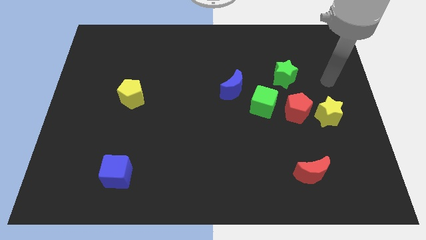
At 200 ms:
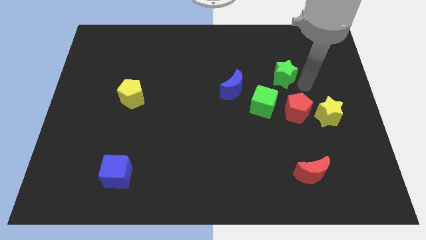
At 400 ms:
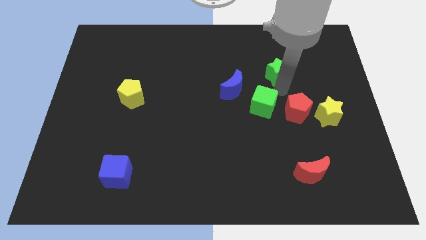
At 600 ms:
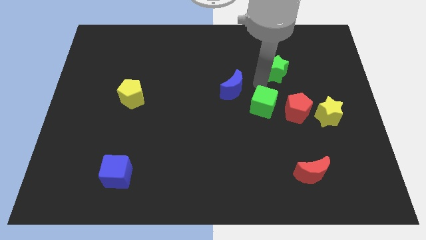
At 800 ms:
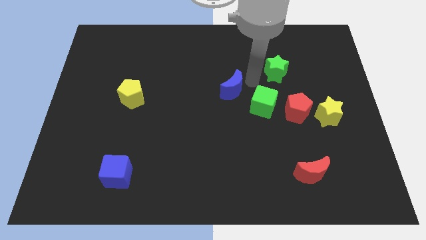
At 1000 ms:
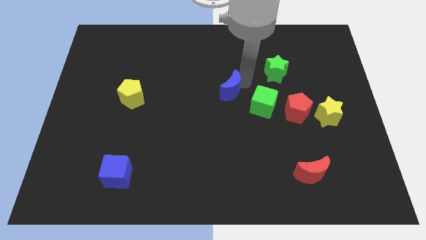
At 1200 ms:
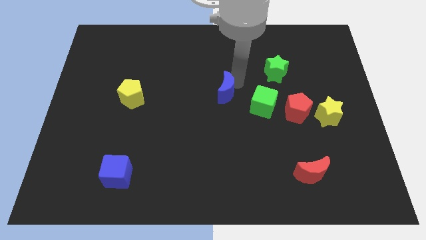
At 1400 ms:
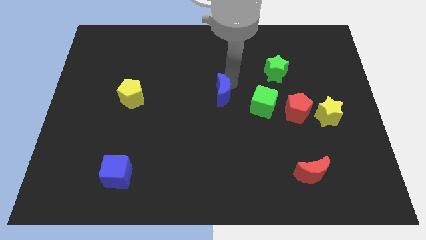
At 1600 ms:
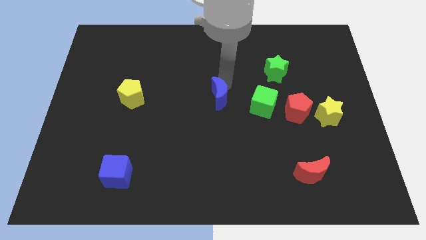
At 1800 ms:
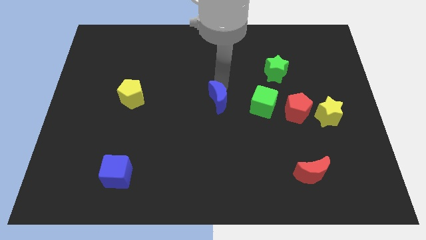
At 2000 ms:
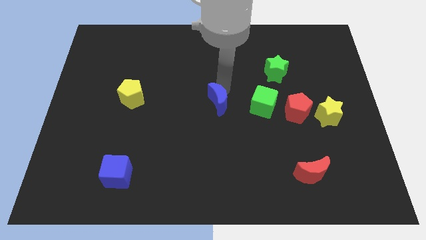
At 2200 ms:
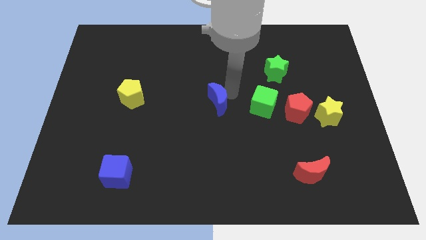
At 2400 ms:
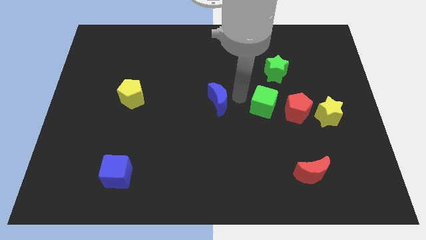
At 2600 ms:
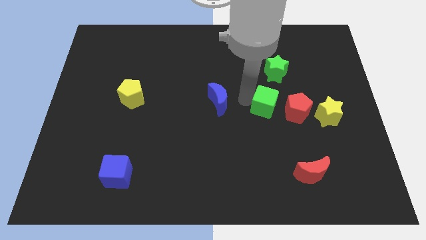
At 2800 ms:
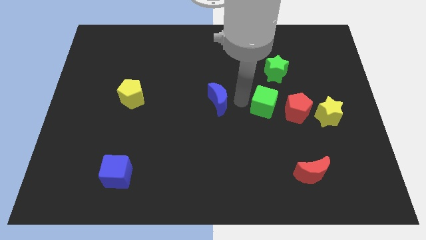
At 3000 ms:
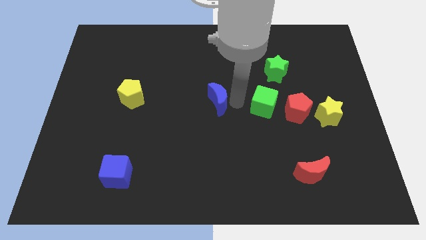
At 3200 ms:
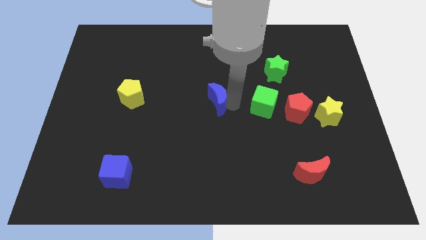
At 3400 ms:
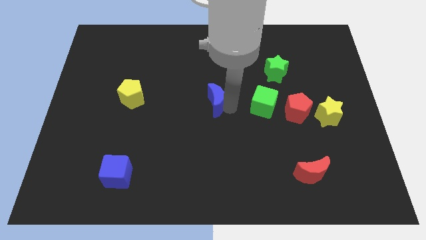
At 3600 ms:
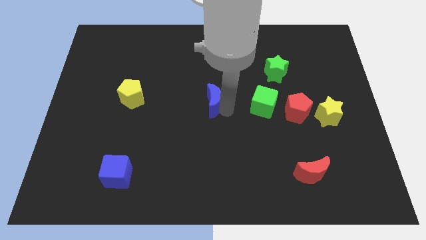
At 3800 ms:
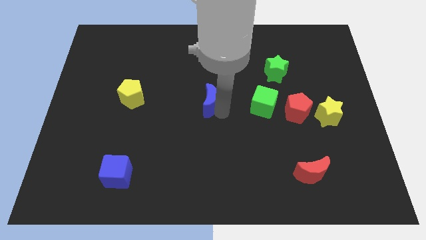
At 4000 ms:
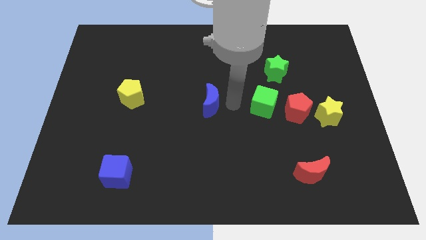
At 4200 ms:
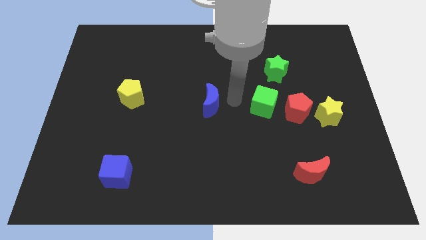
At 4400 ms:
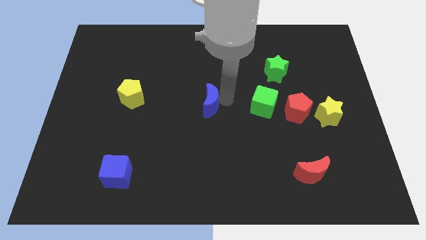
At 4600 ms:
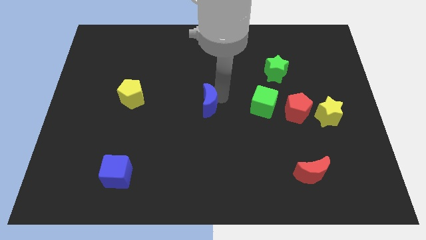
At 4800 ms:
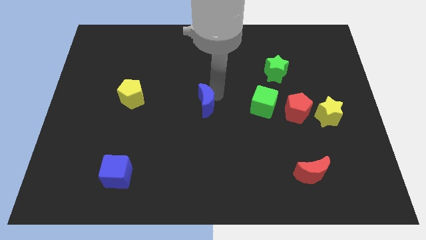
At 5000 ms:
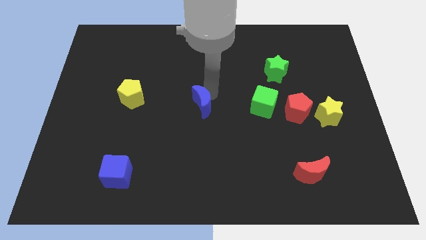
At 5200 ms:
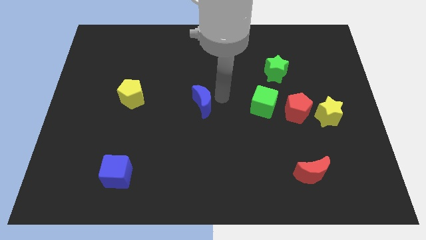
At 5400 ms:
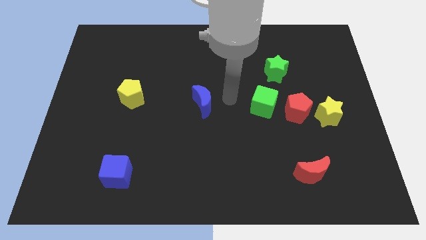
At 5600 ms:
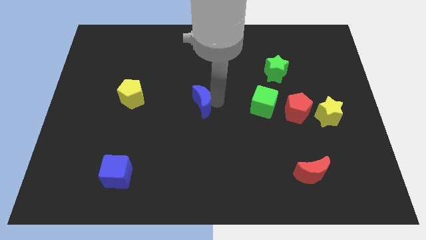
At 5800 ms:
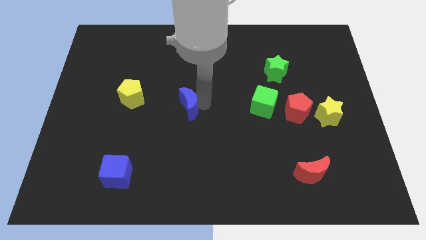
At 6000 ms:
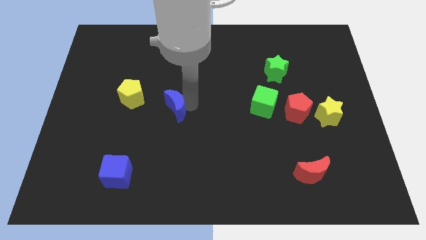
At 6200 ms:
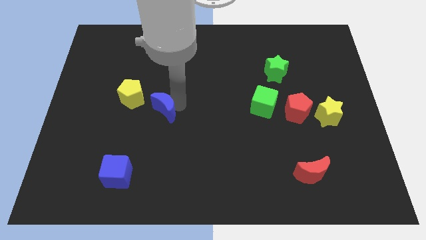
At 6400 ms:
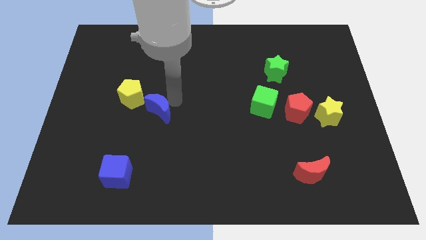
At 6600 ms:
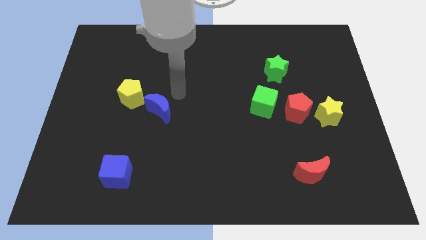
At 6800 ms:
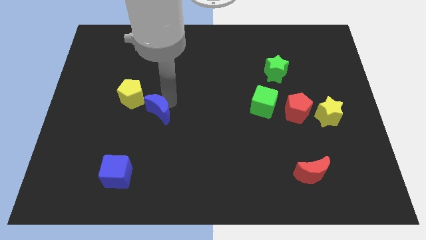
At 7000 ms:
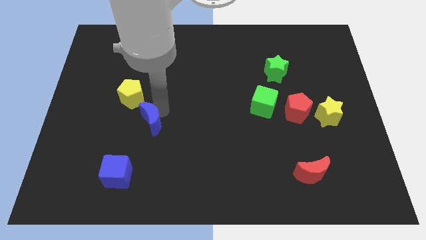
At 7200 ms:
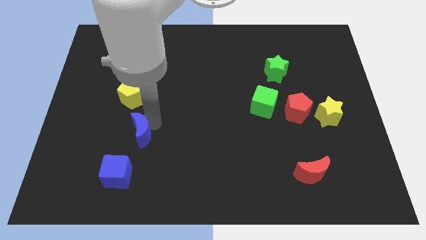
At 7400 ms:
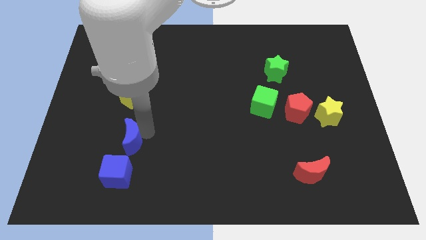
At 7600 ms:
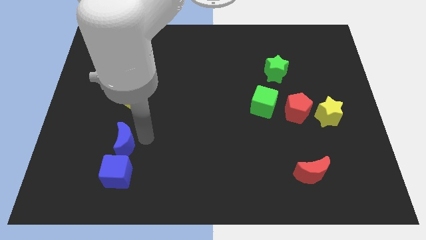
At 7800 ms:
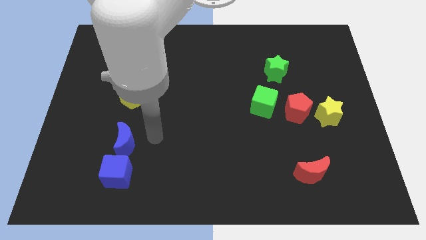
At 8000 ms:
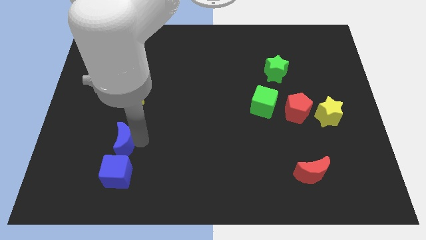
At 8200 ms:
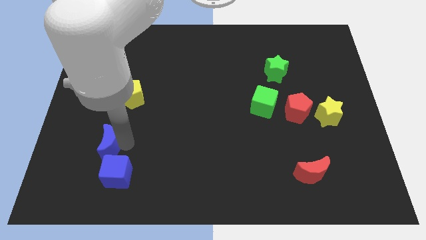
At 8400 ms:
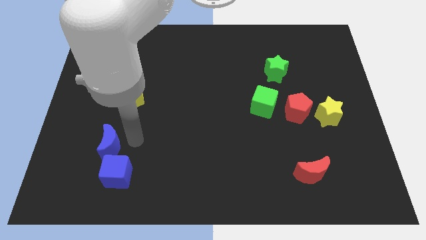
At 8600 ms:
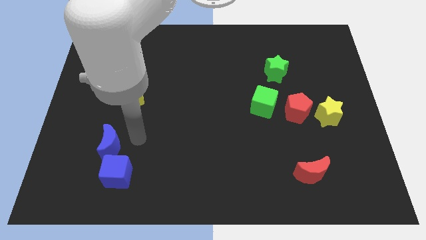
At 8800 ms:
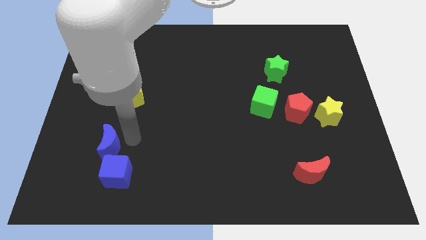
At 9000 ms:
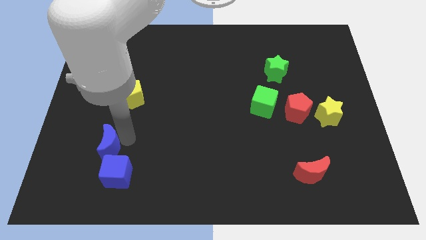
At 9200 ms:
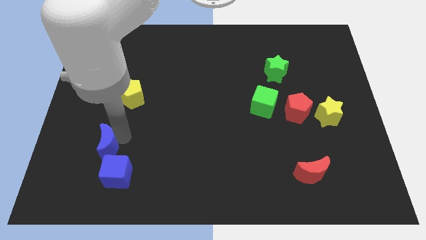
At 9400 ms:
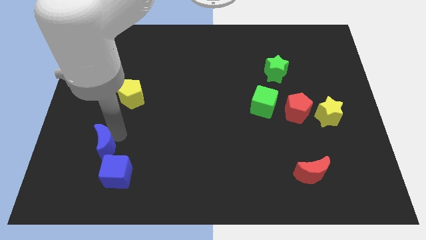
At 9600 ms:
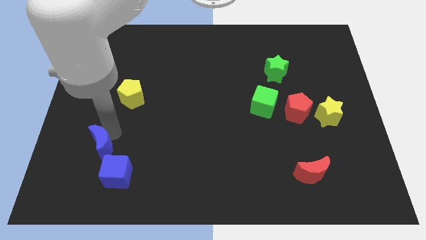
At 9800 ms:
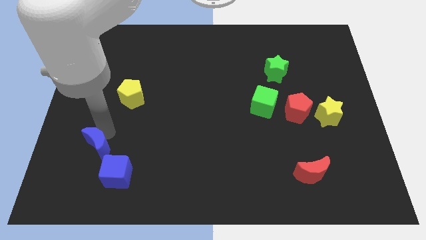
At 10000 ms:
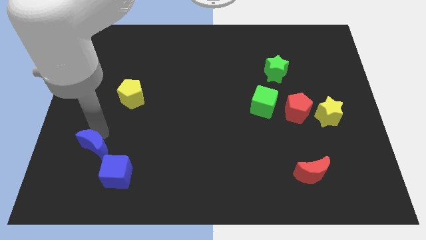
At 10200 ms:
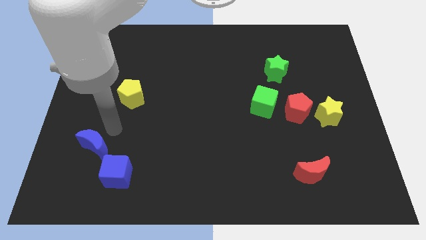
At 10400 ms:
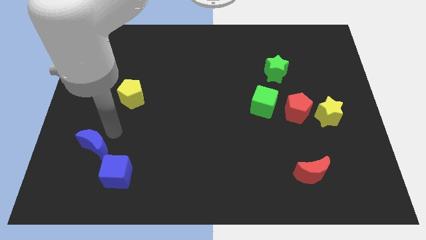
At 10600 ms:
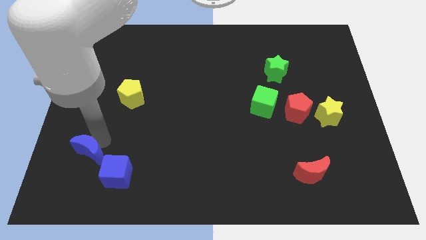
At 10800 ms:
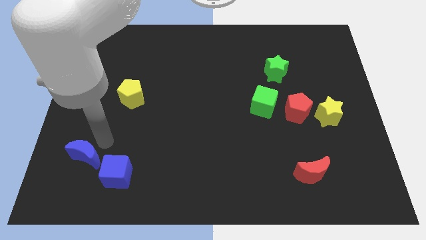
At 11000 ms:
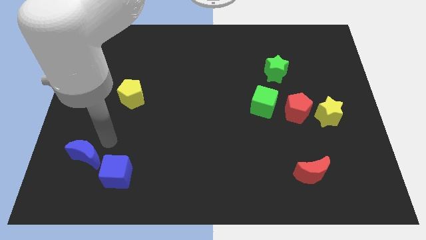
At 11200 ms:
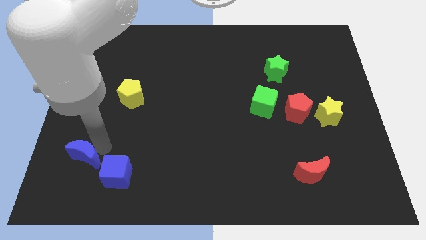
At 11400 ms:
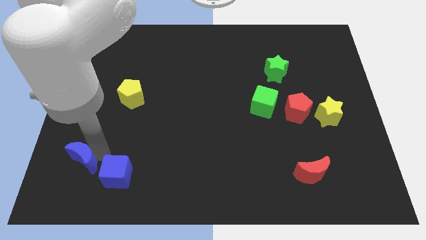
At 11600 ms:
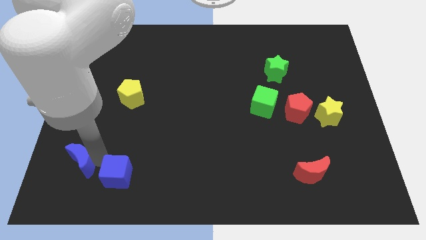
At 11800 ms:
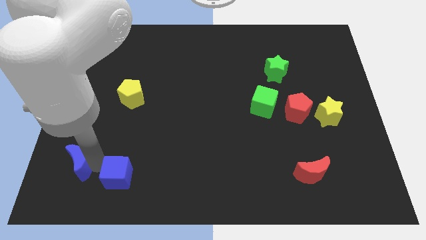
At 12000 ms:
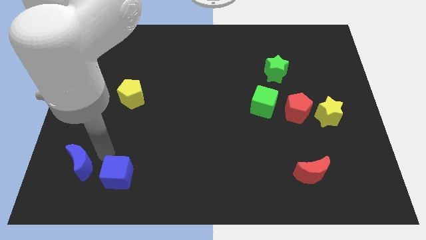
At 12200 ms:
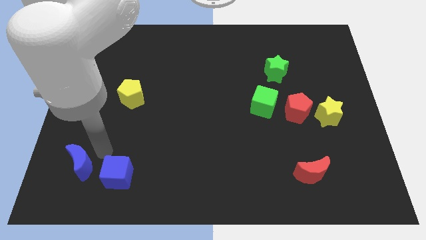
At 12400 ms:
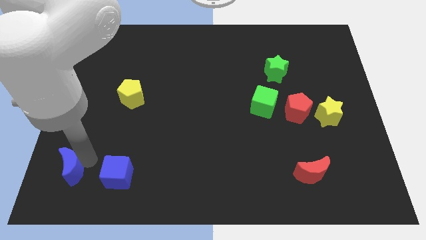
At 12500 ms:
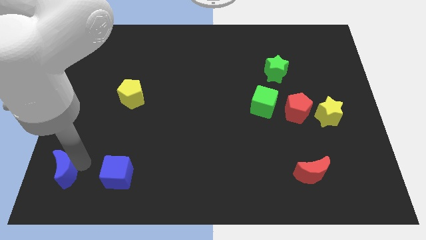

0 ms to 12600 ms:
put the blue moon to the bottom left

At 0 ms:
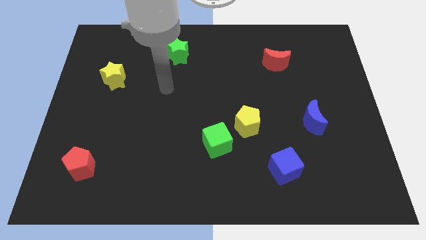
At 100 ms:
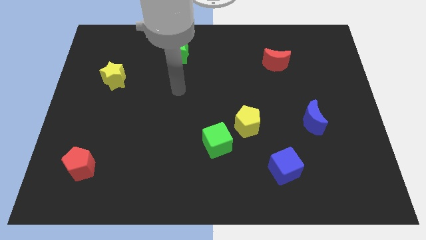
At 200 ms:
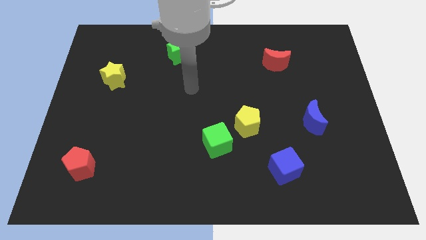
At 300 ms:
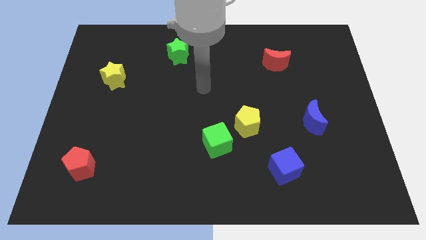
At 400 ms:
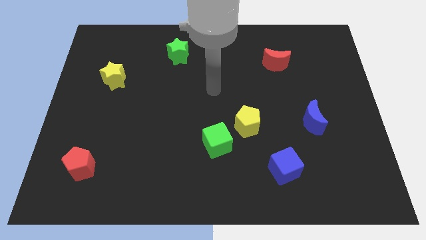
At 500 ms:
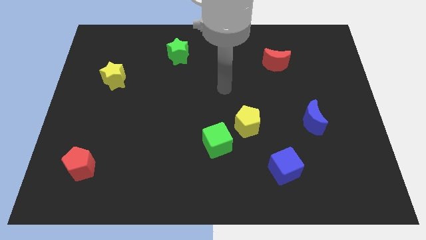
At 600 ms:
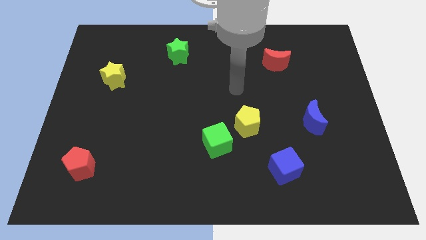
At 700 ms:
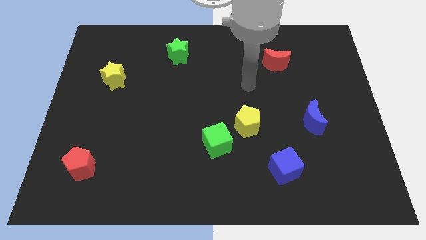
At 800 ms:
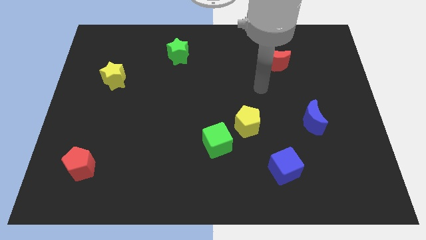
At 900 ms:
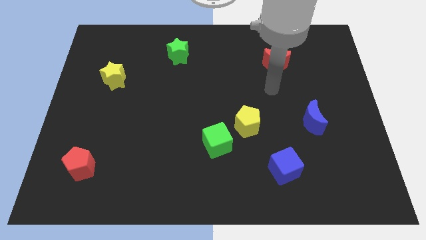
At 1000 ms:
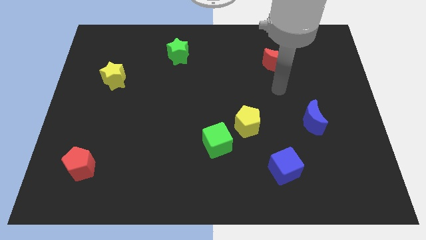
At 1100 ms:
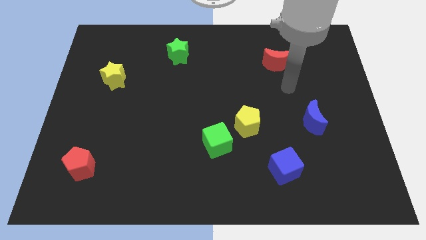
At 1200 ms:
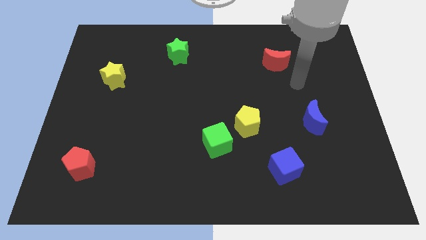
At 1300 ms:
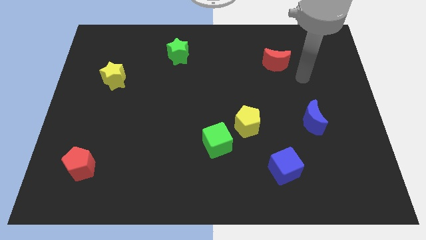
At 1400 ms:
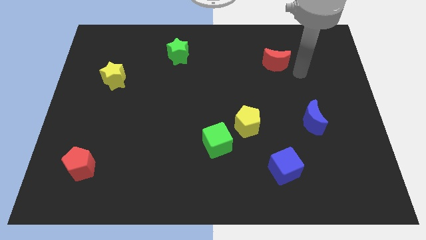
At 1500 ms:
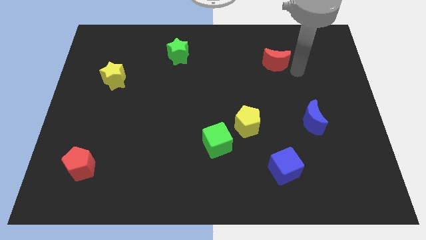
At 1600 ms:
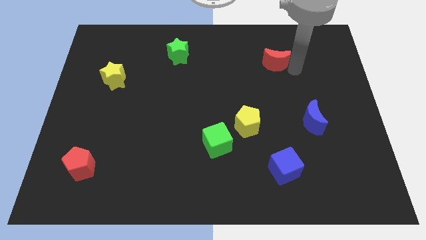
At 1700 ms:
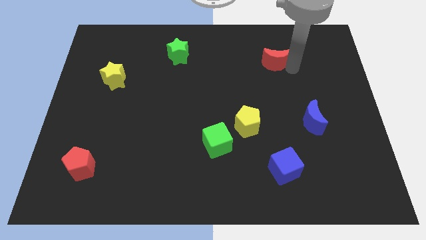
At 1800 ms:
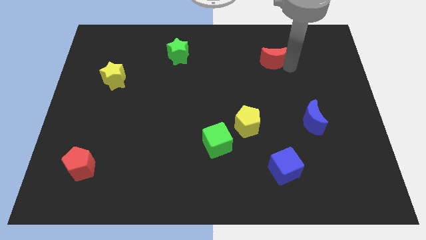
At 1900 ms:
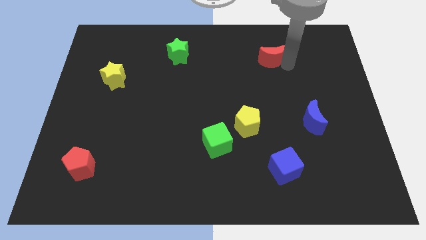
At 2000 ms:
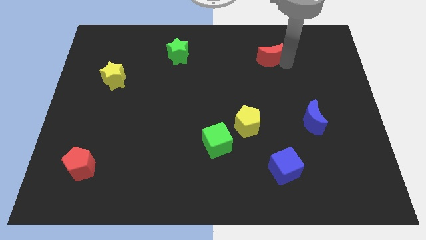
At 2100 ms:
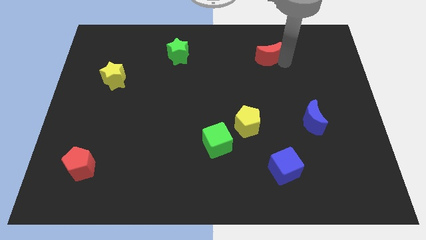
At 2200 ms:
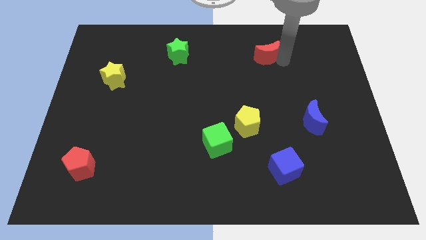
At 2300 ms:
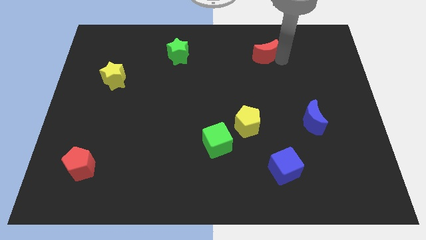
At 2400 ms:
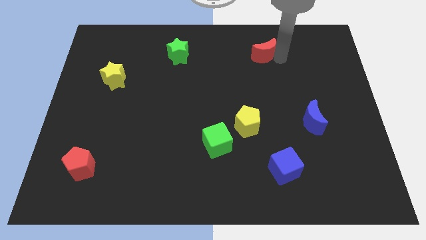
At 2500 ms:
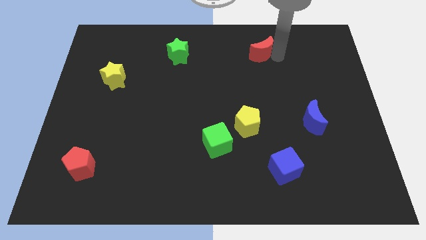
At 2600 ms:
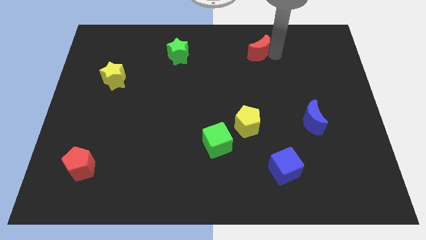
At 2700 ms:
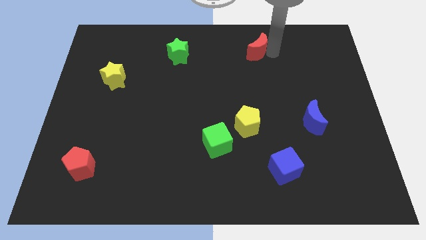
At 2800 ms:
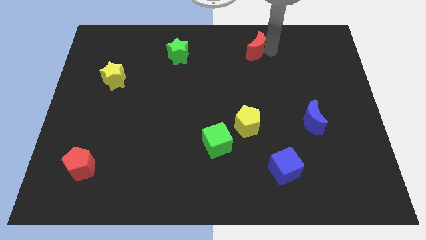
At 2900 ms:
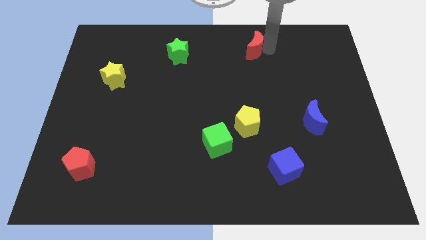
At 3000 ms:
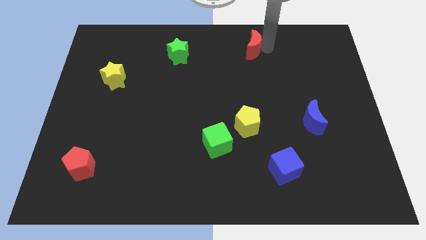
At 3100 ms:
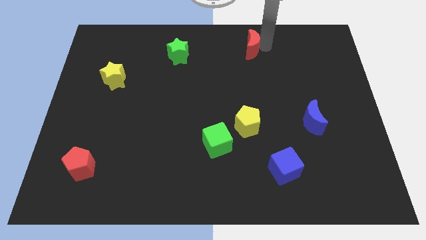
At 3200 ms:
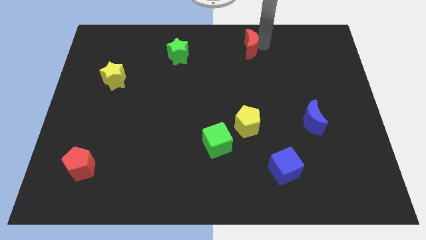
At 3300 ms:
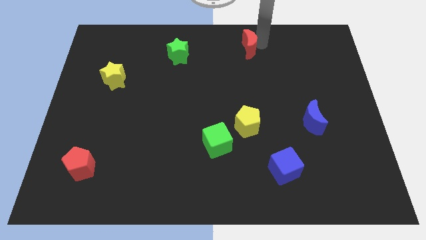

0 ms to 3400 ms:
move the red moon to the top
